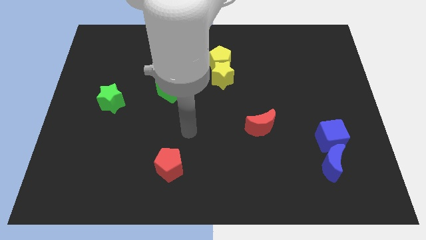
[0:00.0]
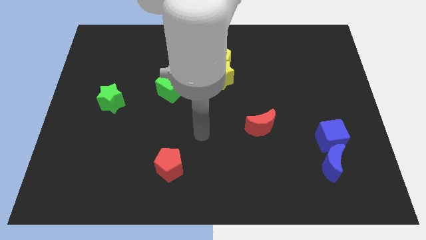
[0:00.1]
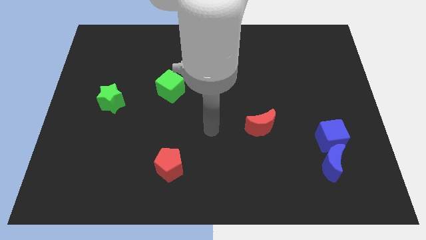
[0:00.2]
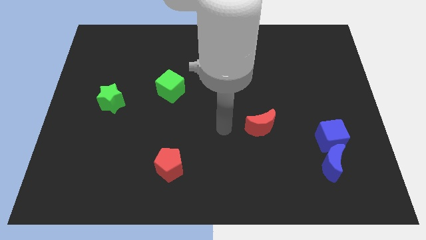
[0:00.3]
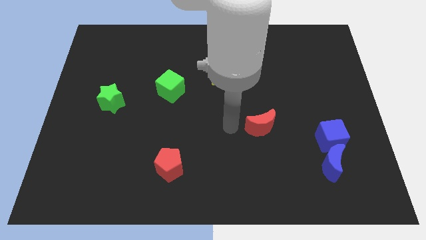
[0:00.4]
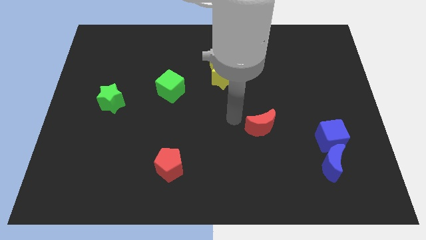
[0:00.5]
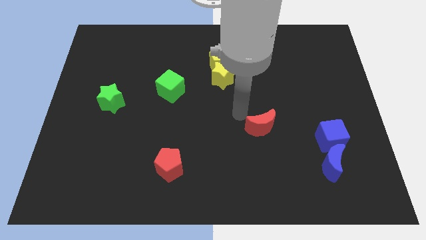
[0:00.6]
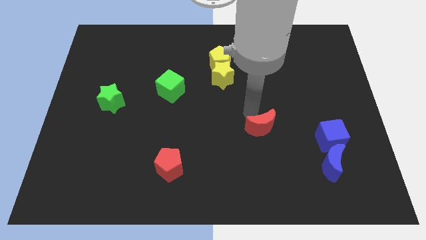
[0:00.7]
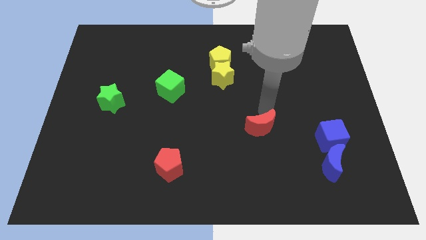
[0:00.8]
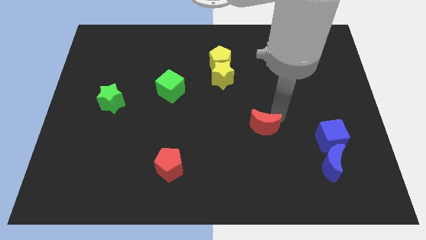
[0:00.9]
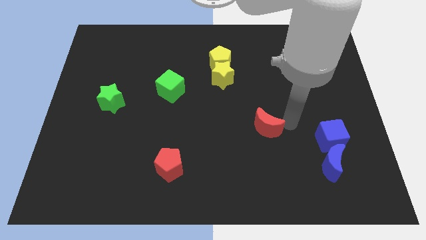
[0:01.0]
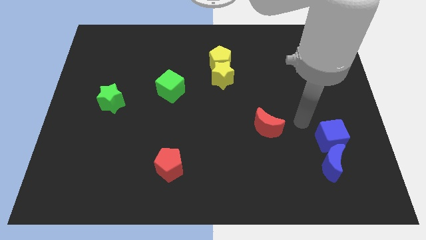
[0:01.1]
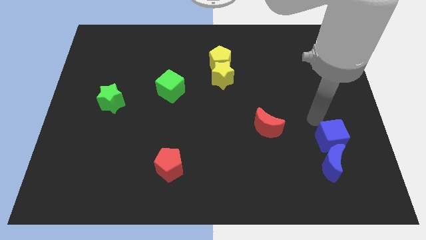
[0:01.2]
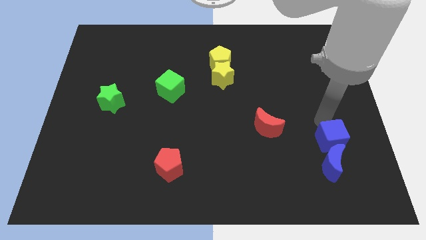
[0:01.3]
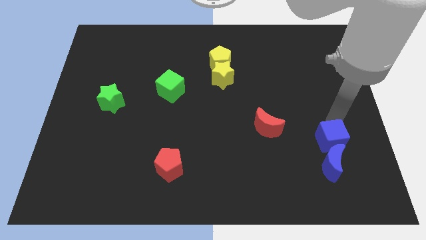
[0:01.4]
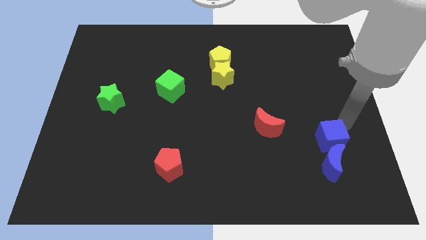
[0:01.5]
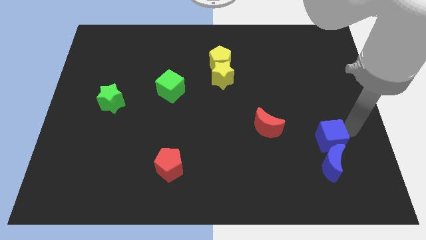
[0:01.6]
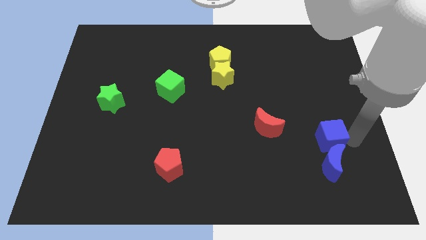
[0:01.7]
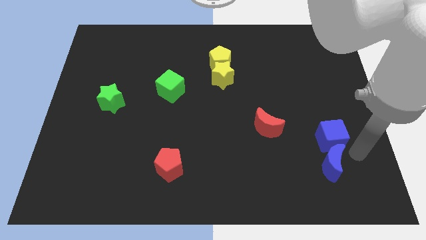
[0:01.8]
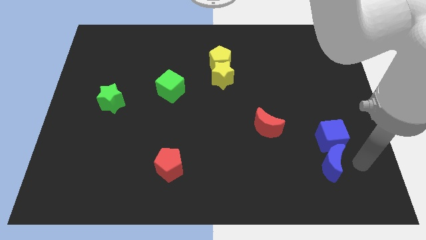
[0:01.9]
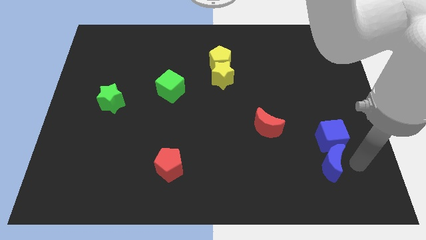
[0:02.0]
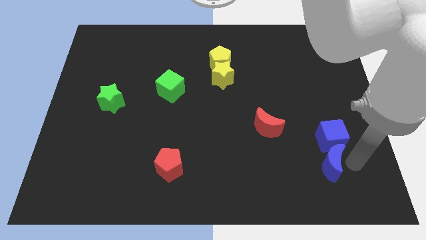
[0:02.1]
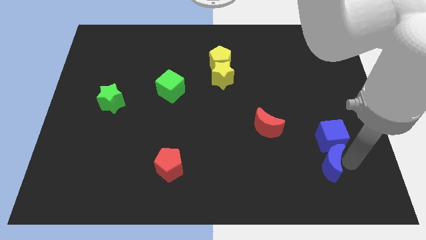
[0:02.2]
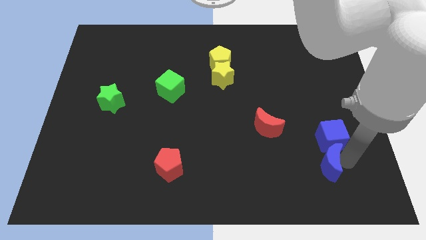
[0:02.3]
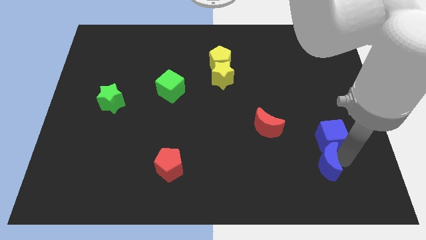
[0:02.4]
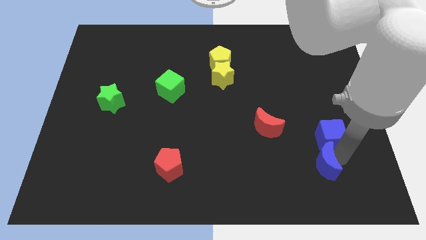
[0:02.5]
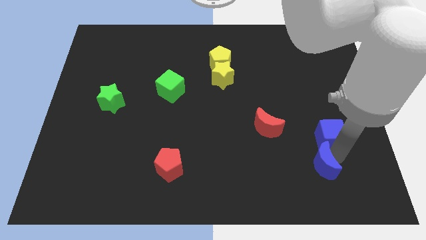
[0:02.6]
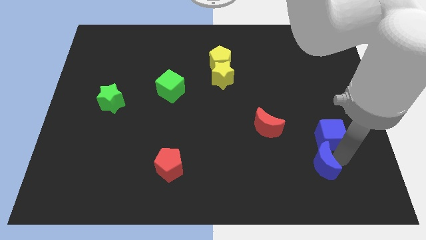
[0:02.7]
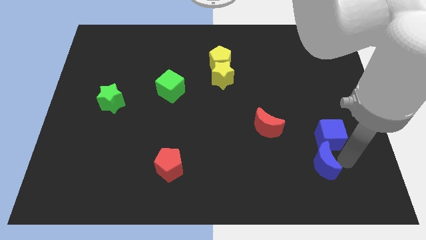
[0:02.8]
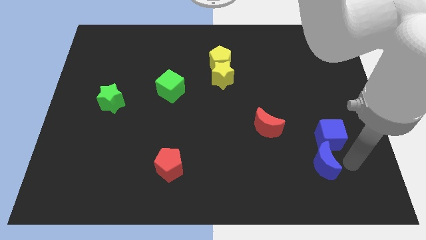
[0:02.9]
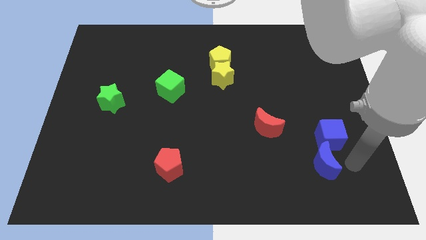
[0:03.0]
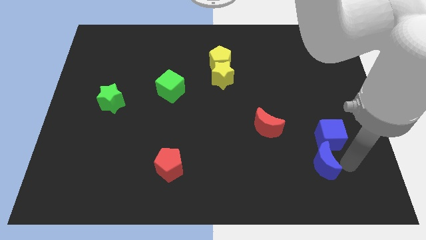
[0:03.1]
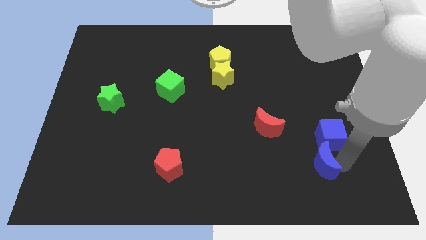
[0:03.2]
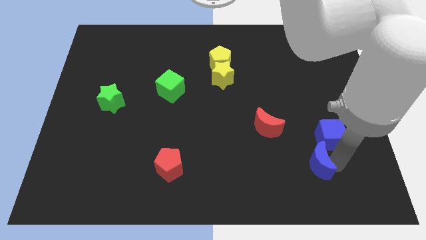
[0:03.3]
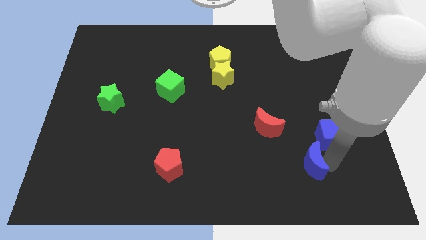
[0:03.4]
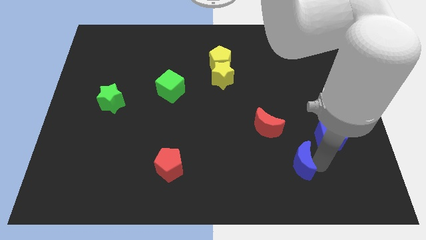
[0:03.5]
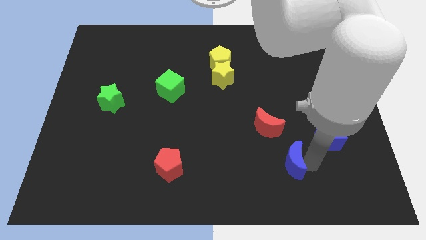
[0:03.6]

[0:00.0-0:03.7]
push the blue moon left slightly

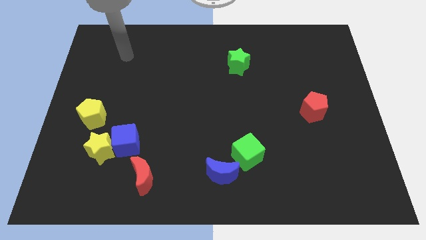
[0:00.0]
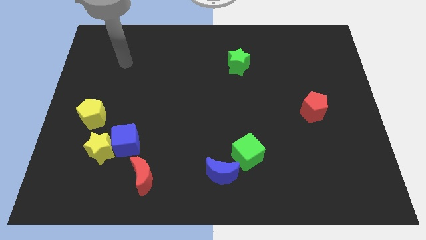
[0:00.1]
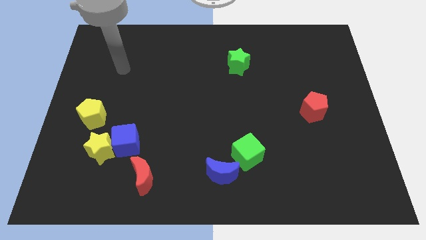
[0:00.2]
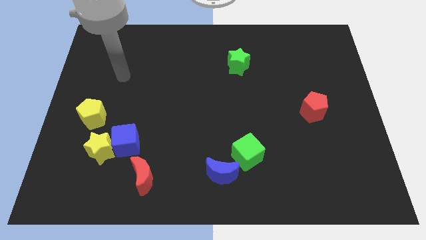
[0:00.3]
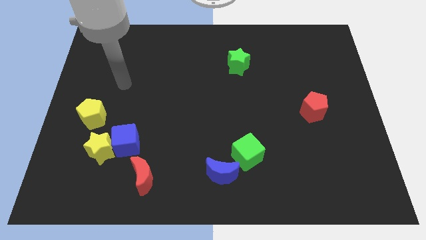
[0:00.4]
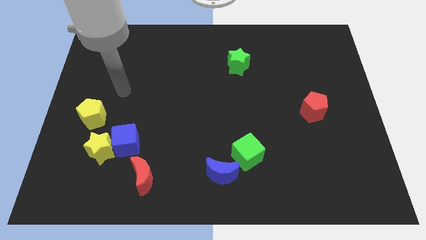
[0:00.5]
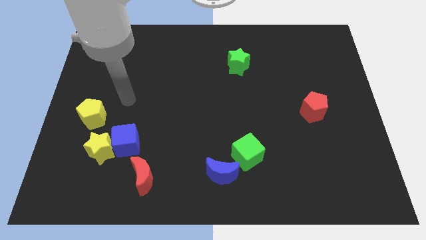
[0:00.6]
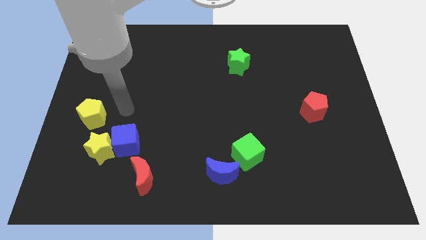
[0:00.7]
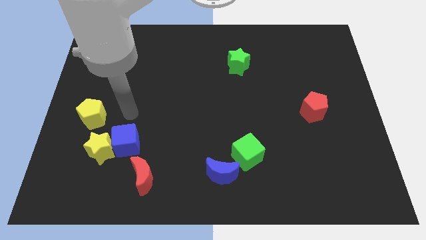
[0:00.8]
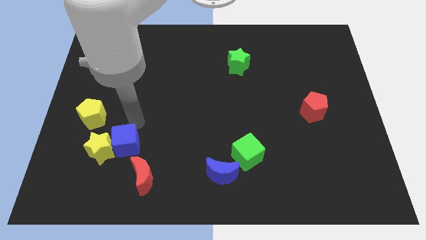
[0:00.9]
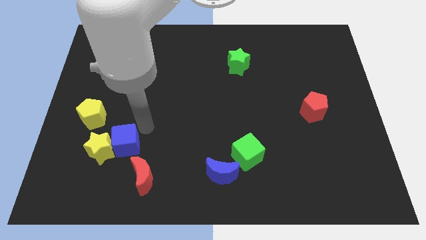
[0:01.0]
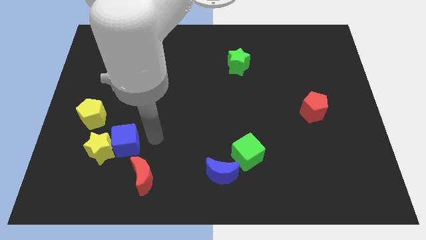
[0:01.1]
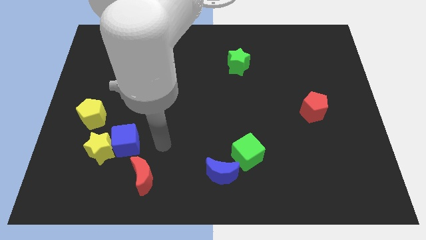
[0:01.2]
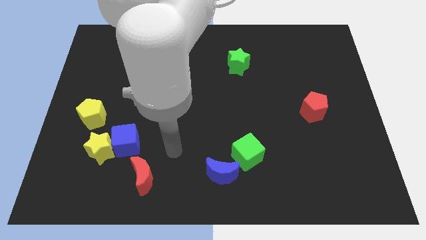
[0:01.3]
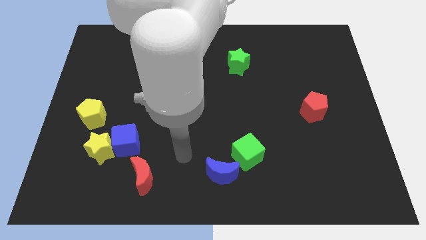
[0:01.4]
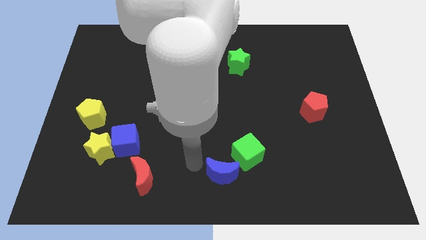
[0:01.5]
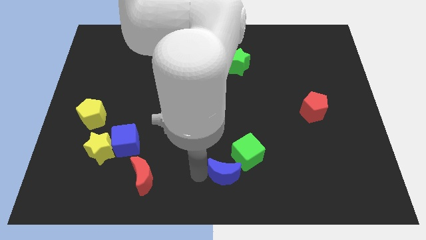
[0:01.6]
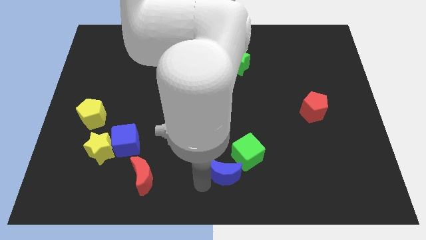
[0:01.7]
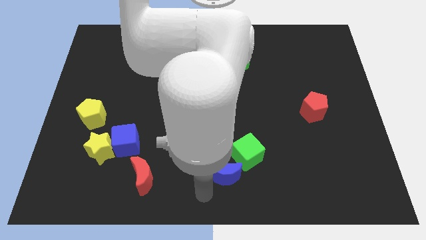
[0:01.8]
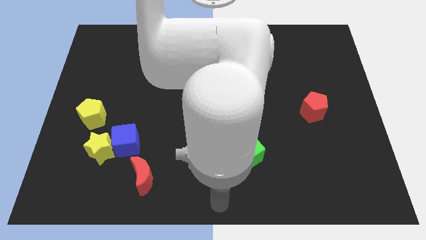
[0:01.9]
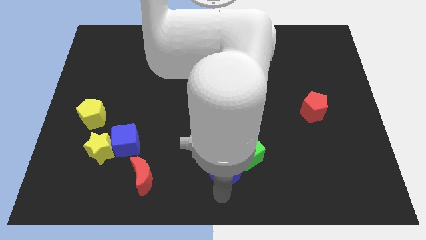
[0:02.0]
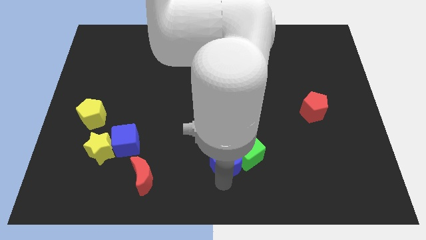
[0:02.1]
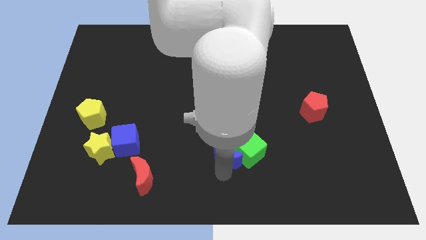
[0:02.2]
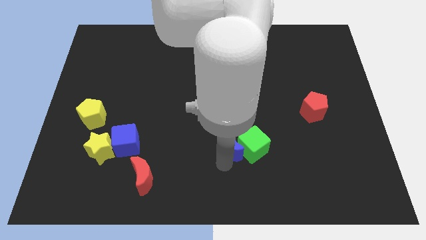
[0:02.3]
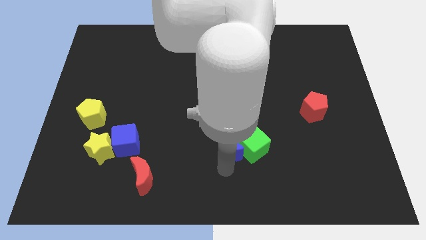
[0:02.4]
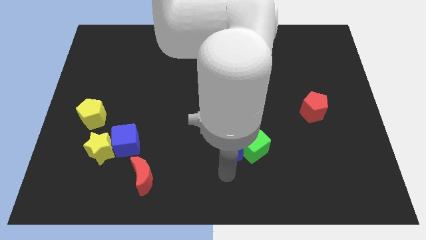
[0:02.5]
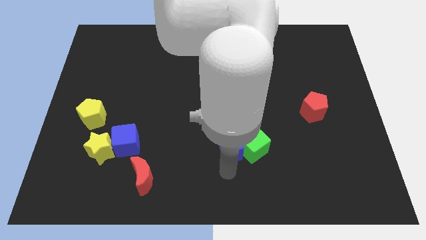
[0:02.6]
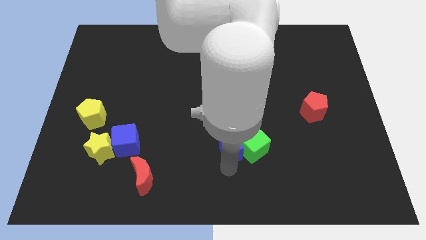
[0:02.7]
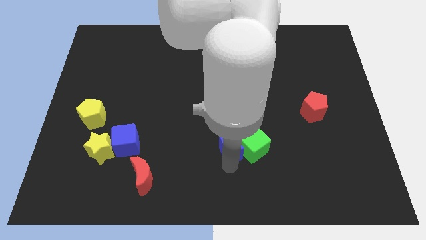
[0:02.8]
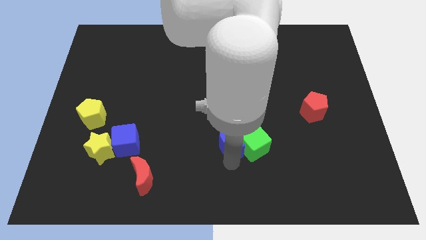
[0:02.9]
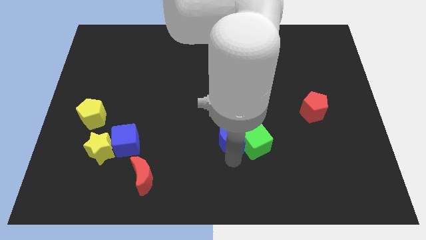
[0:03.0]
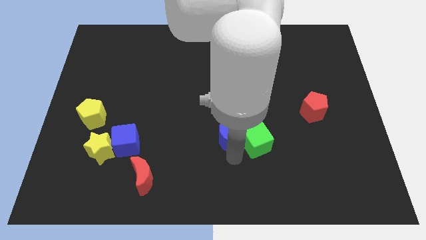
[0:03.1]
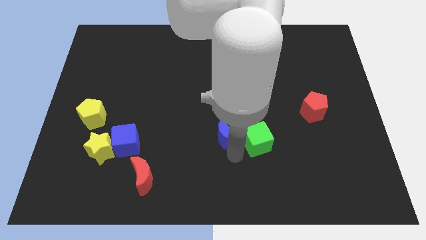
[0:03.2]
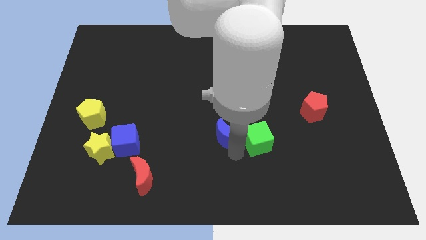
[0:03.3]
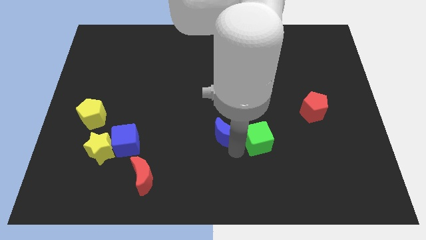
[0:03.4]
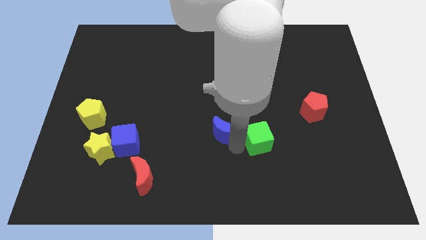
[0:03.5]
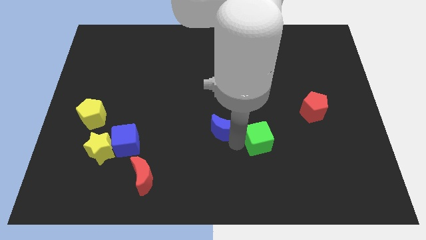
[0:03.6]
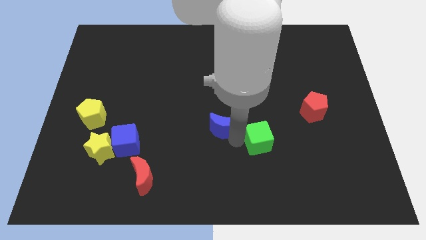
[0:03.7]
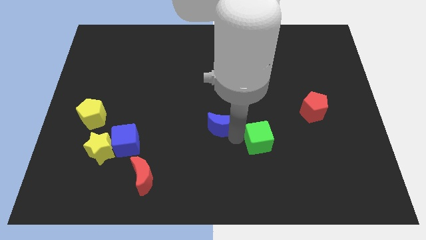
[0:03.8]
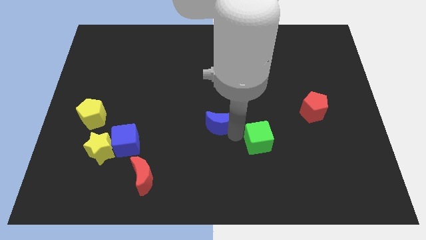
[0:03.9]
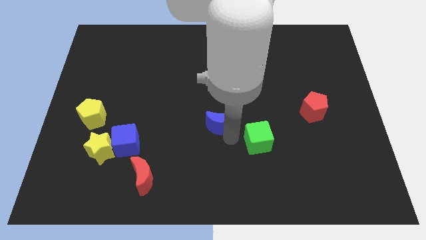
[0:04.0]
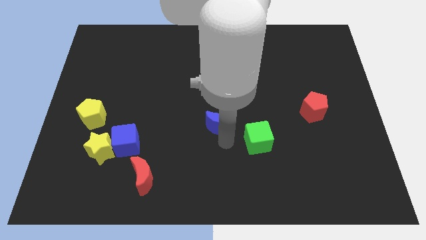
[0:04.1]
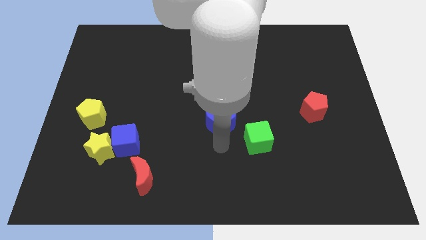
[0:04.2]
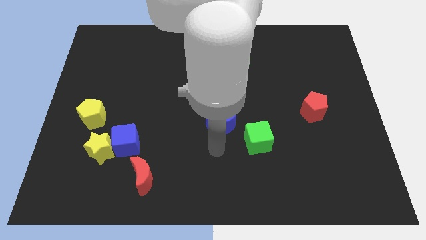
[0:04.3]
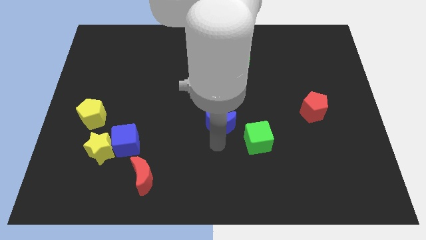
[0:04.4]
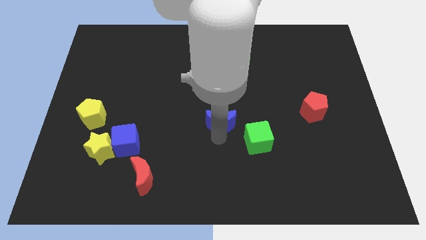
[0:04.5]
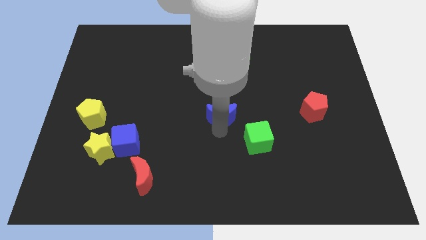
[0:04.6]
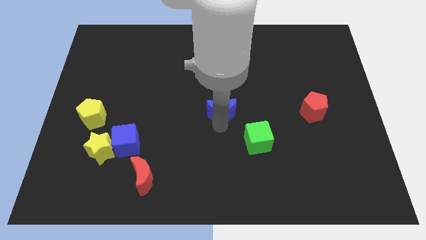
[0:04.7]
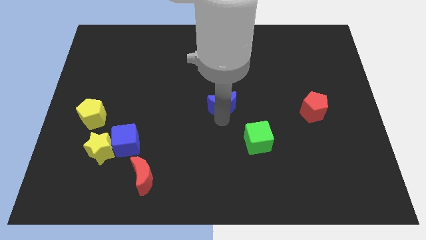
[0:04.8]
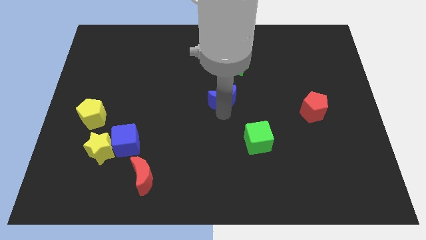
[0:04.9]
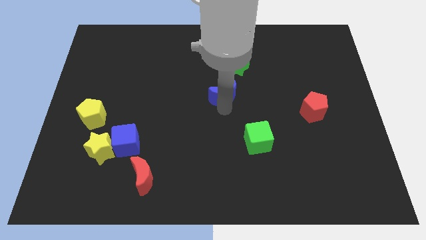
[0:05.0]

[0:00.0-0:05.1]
move the blue moon up
